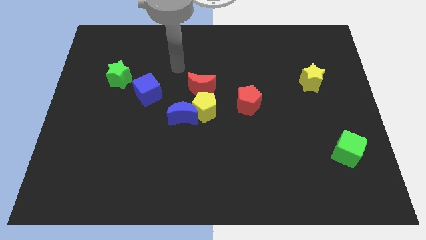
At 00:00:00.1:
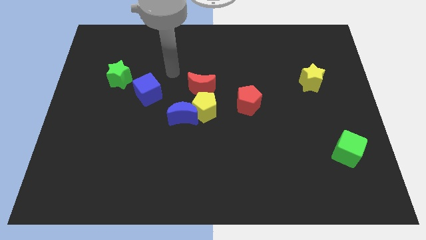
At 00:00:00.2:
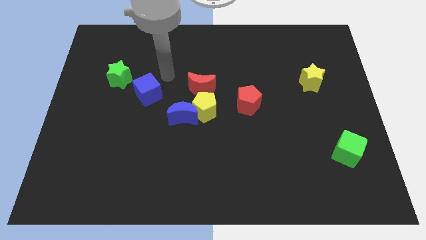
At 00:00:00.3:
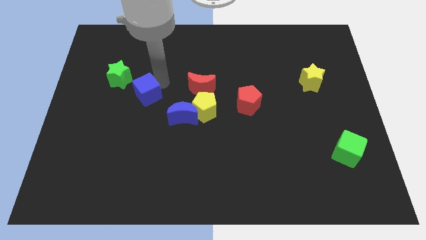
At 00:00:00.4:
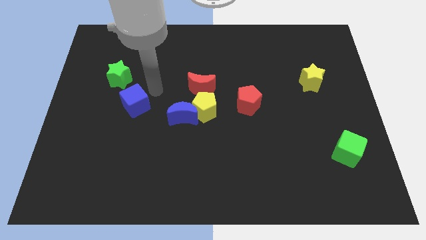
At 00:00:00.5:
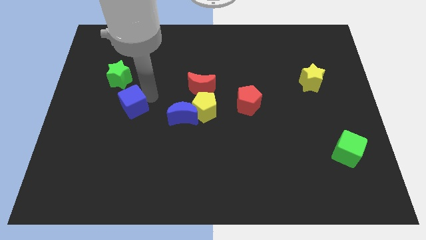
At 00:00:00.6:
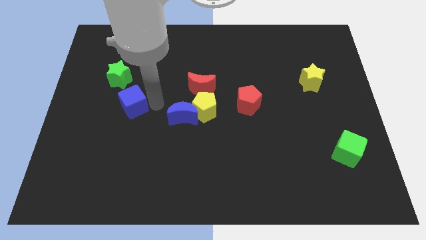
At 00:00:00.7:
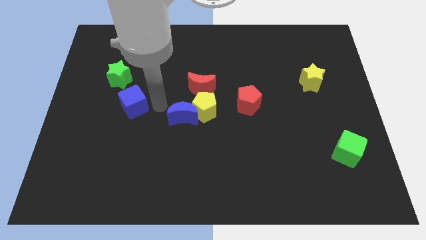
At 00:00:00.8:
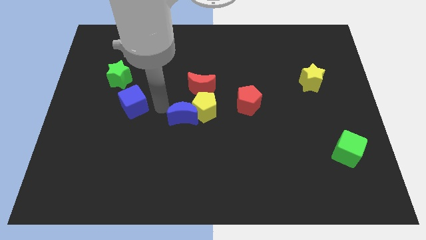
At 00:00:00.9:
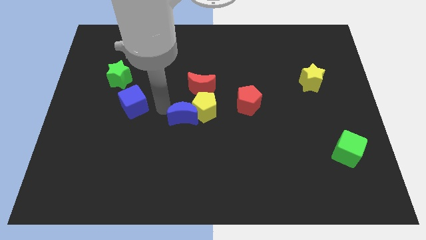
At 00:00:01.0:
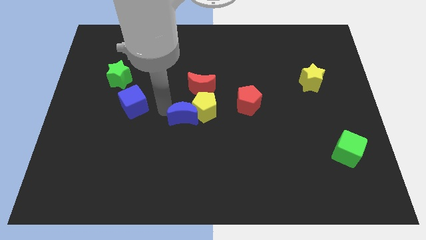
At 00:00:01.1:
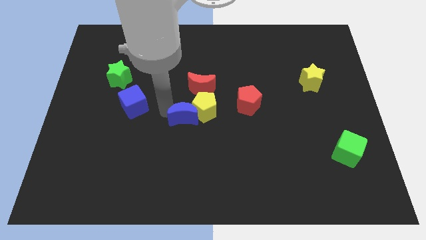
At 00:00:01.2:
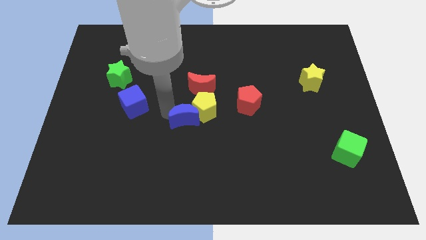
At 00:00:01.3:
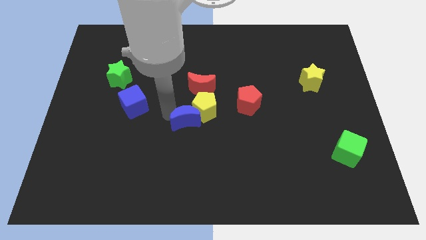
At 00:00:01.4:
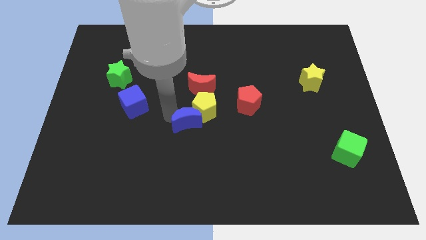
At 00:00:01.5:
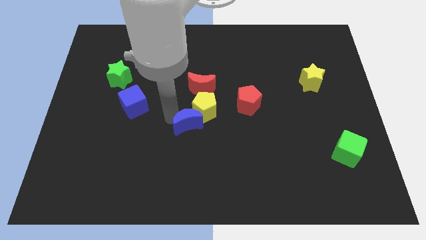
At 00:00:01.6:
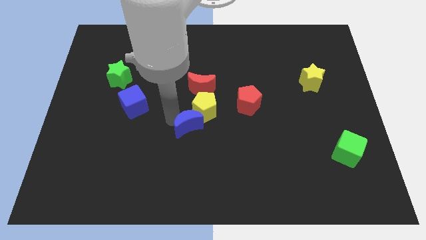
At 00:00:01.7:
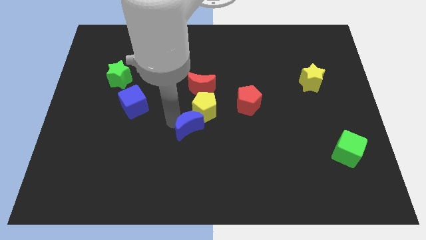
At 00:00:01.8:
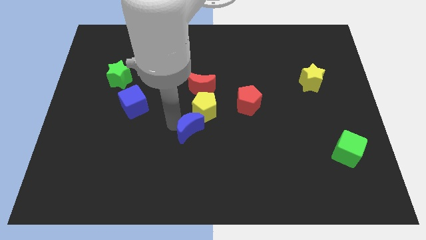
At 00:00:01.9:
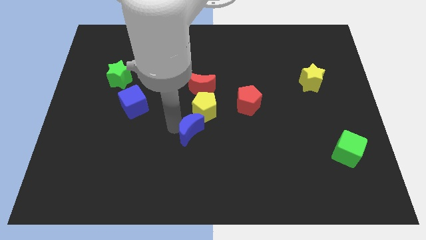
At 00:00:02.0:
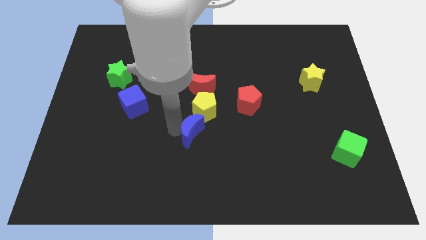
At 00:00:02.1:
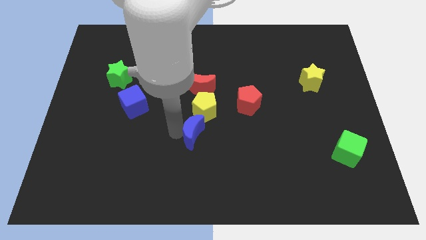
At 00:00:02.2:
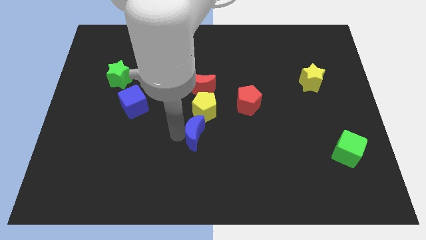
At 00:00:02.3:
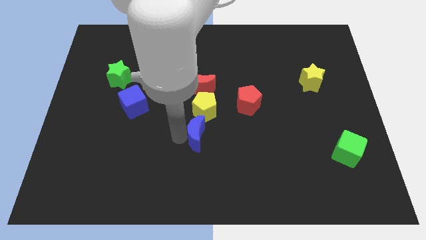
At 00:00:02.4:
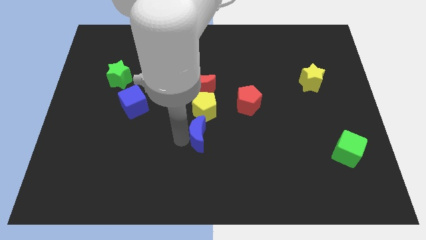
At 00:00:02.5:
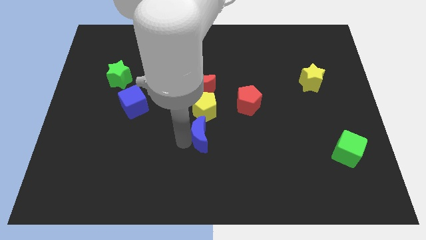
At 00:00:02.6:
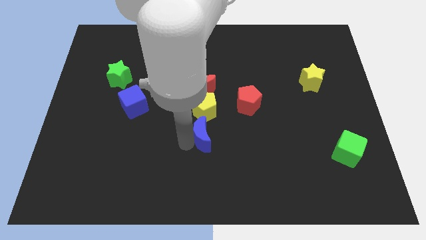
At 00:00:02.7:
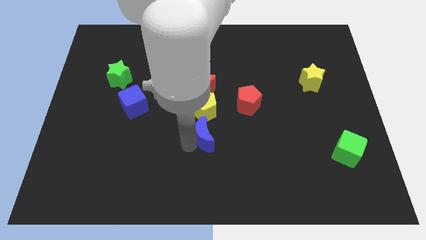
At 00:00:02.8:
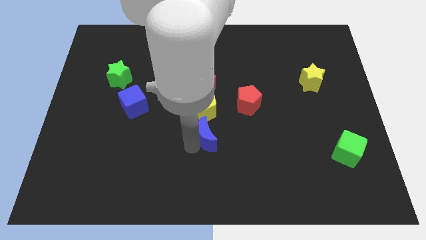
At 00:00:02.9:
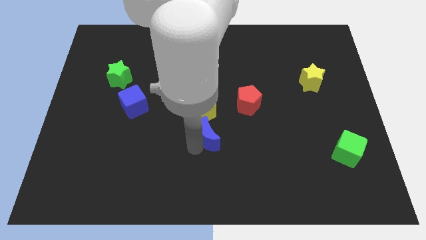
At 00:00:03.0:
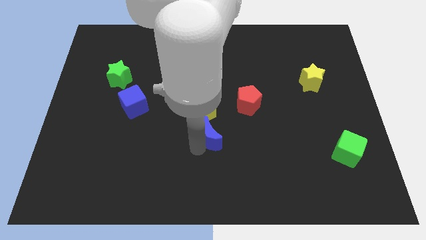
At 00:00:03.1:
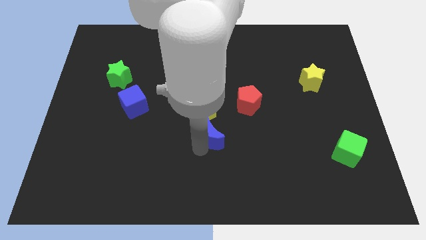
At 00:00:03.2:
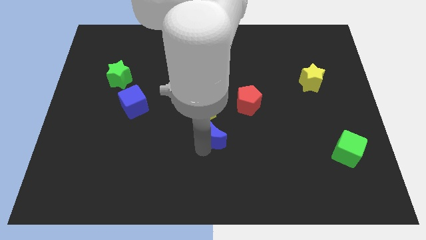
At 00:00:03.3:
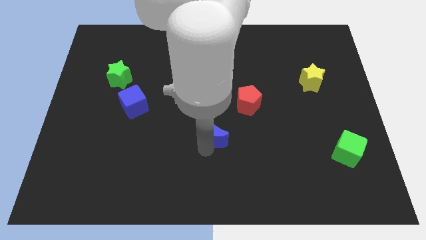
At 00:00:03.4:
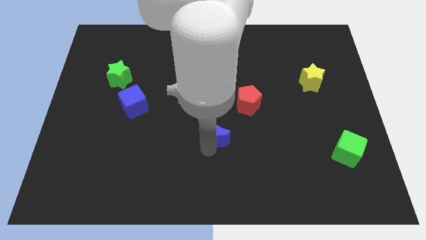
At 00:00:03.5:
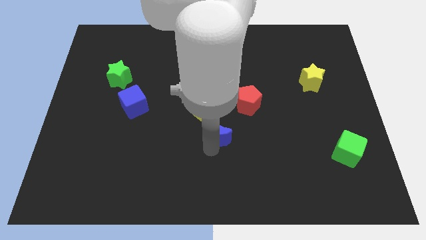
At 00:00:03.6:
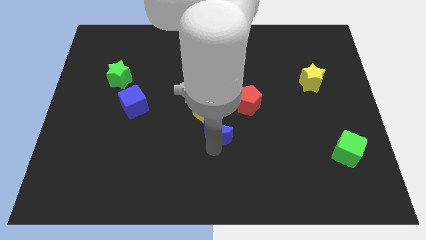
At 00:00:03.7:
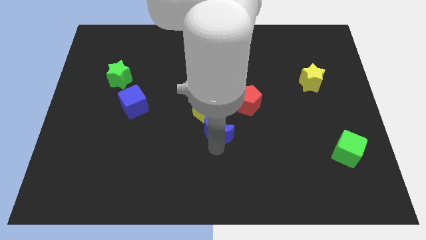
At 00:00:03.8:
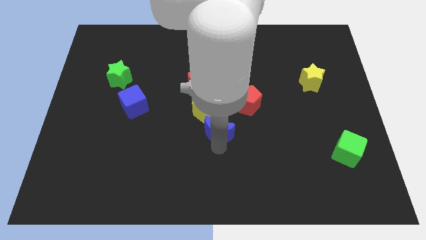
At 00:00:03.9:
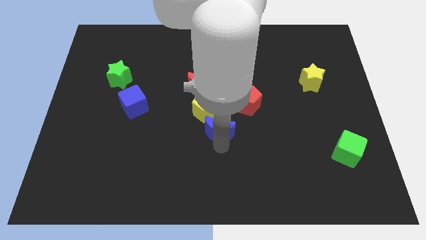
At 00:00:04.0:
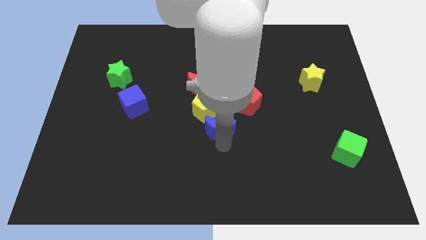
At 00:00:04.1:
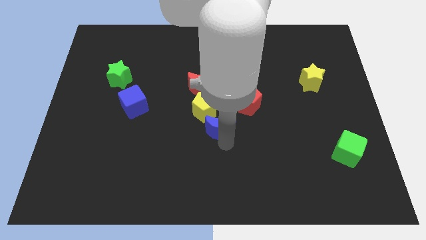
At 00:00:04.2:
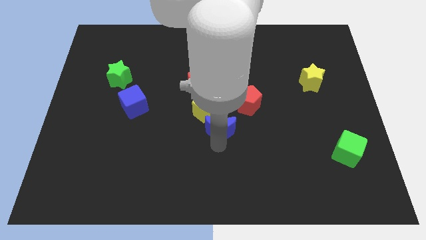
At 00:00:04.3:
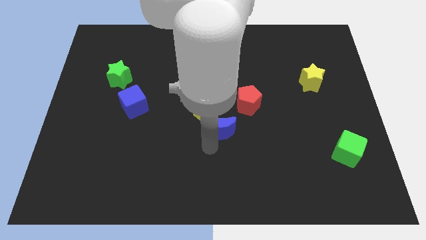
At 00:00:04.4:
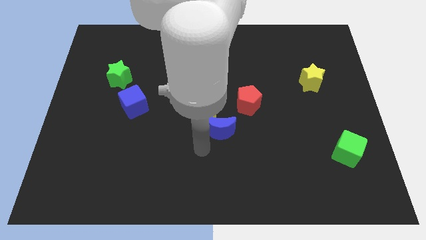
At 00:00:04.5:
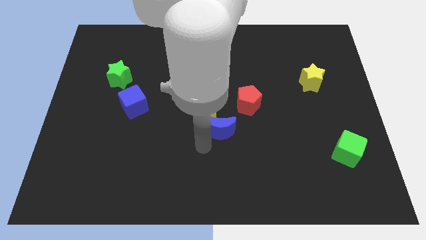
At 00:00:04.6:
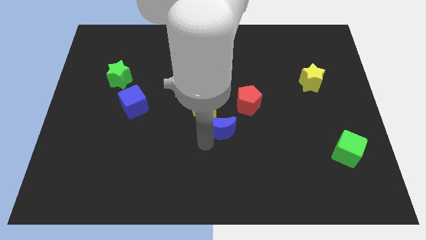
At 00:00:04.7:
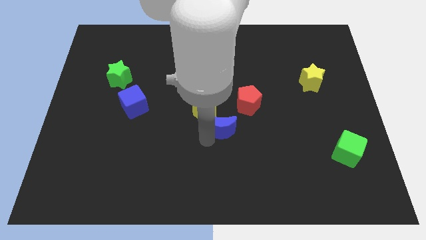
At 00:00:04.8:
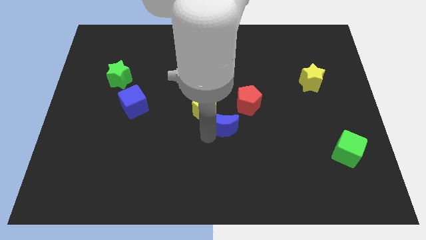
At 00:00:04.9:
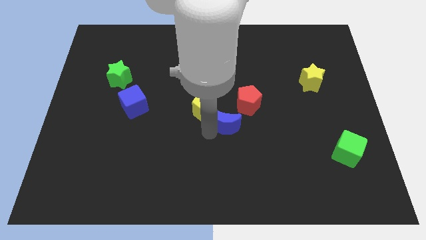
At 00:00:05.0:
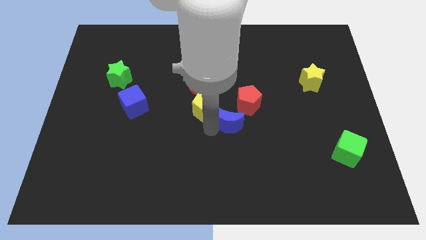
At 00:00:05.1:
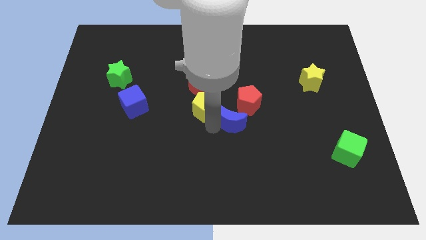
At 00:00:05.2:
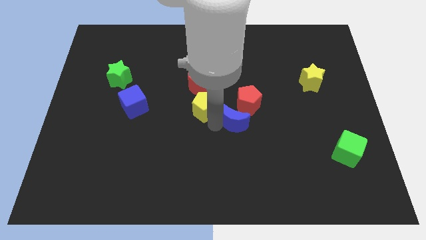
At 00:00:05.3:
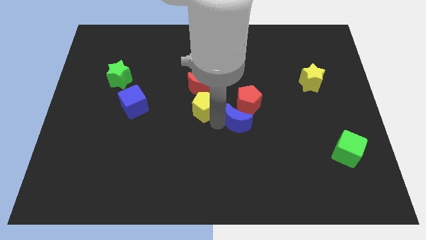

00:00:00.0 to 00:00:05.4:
slide the blue moon close to the red pentagon

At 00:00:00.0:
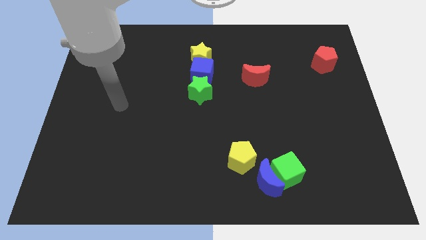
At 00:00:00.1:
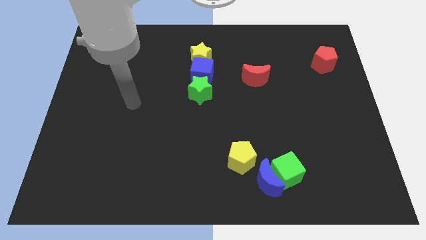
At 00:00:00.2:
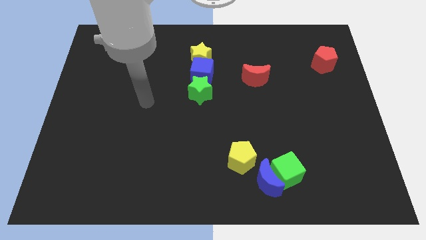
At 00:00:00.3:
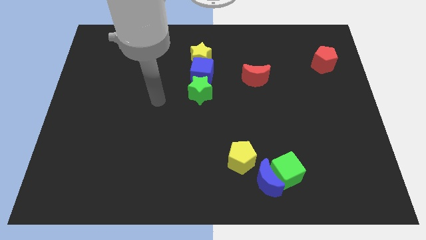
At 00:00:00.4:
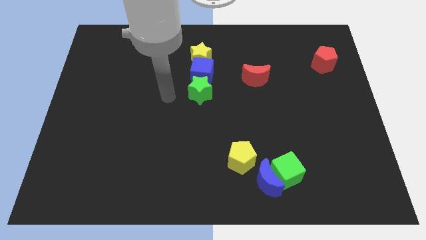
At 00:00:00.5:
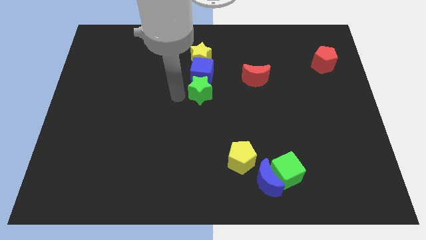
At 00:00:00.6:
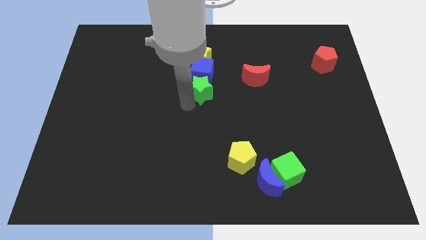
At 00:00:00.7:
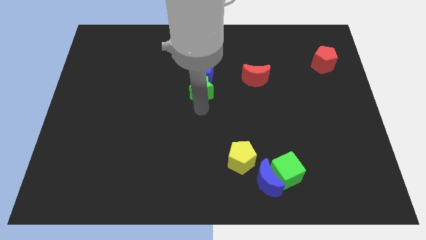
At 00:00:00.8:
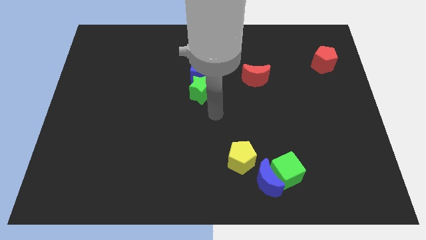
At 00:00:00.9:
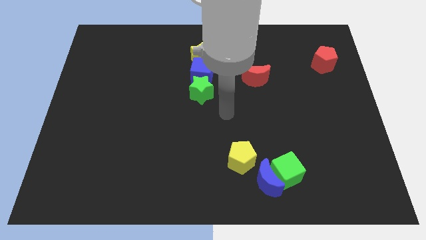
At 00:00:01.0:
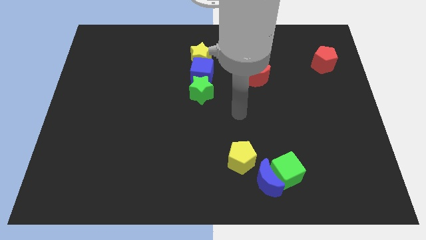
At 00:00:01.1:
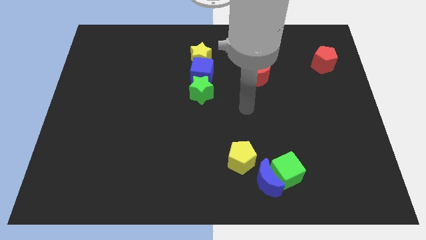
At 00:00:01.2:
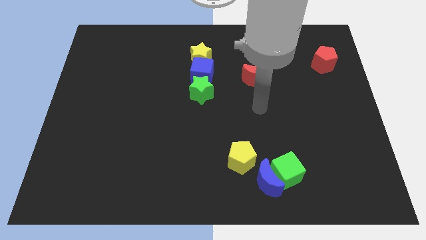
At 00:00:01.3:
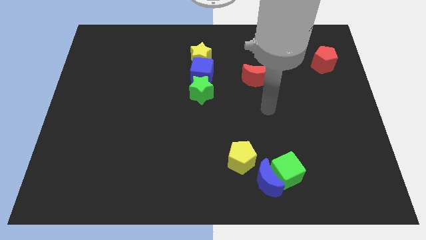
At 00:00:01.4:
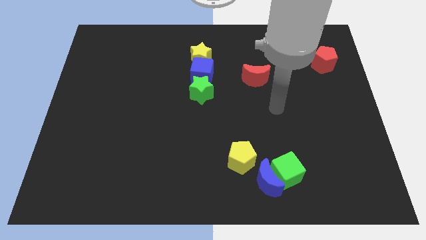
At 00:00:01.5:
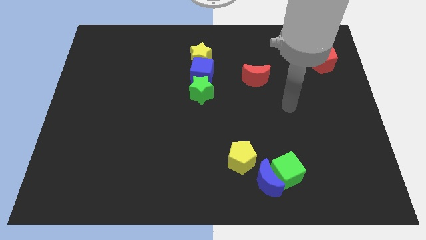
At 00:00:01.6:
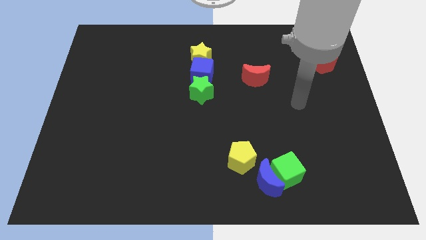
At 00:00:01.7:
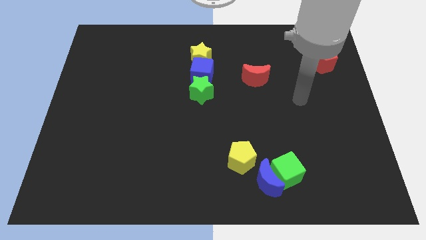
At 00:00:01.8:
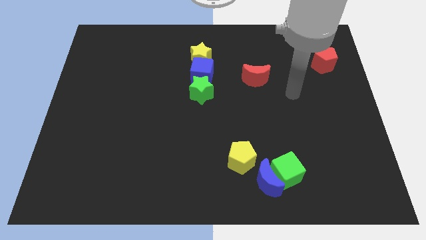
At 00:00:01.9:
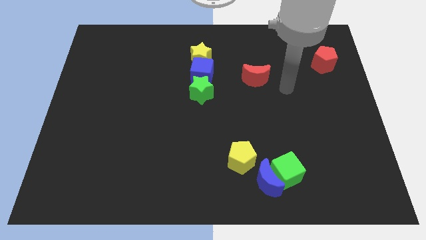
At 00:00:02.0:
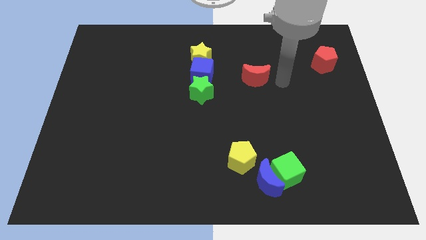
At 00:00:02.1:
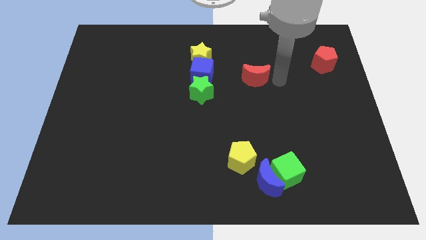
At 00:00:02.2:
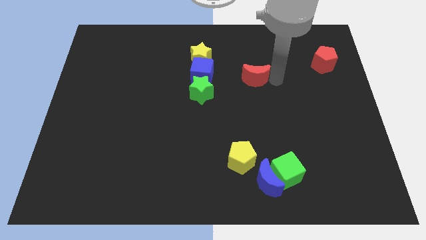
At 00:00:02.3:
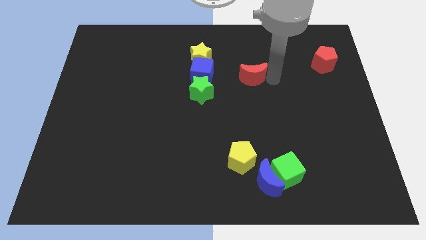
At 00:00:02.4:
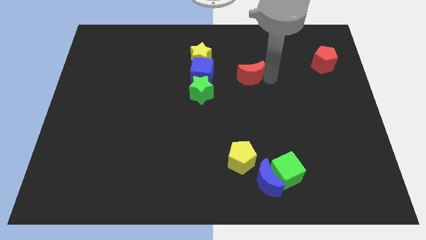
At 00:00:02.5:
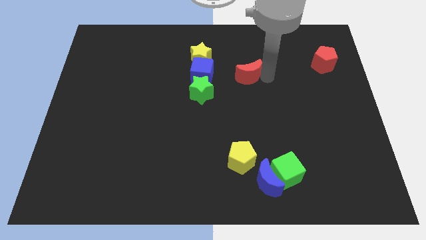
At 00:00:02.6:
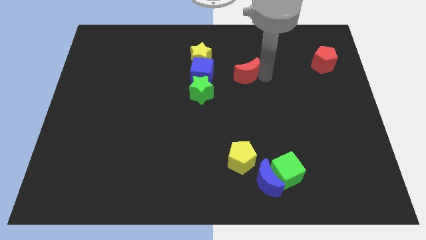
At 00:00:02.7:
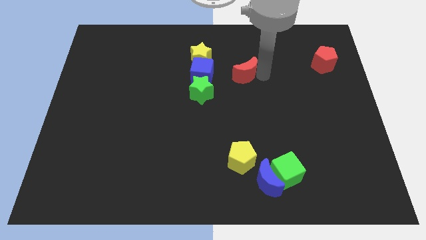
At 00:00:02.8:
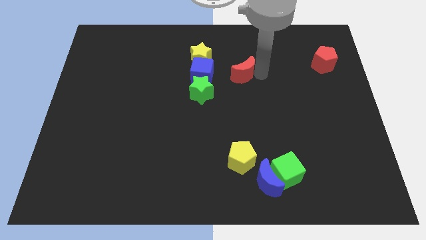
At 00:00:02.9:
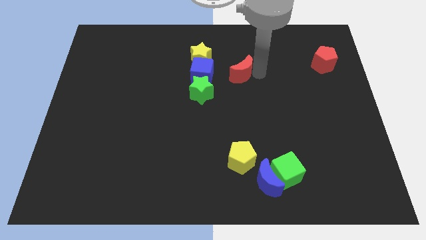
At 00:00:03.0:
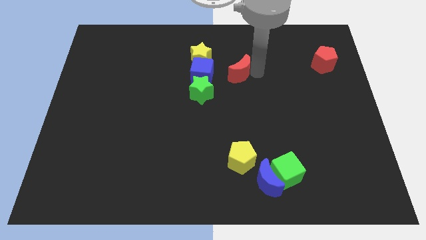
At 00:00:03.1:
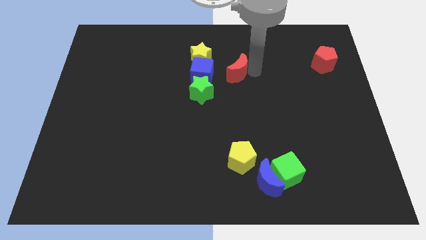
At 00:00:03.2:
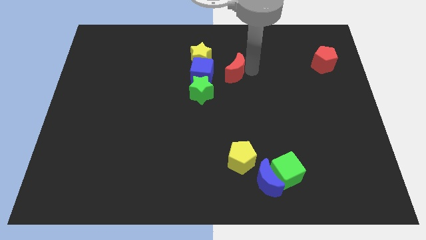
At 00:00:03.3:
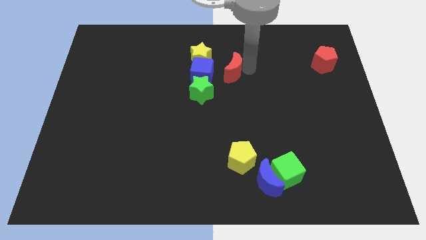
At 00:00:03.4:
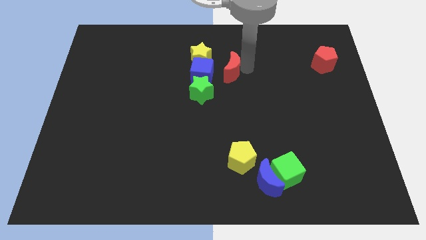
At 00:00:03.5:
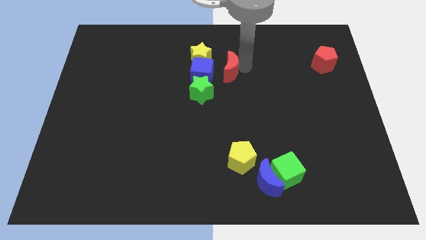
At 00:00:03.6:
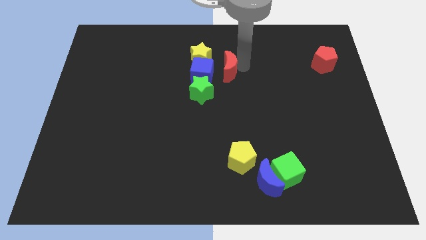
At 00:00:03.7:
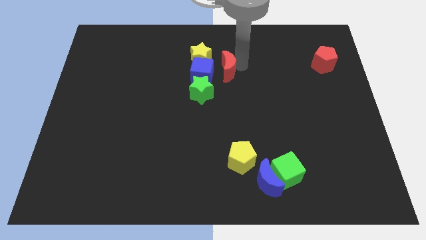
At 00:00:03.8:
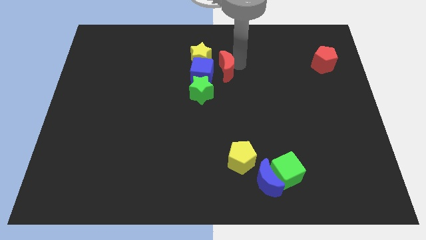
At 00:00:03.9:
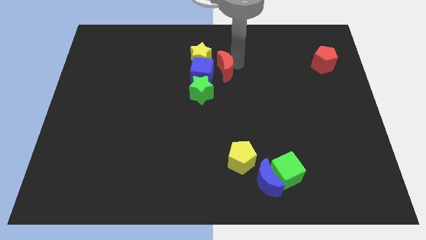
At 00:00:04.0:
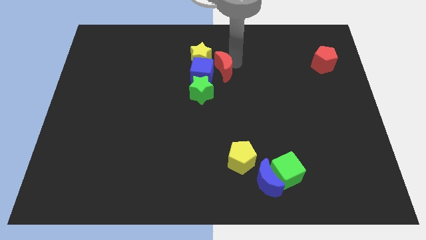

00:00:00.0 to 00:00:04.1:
move the red moon close to the blue cube
